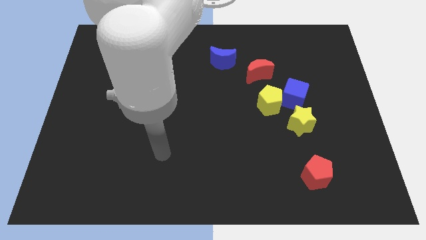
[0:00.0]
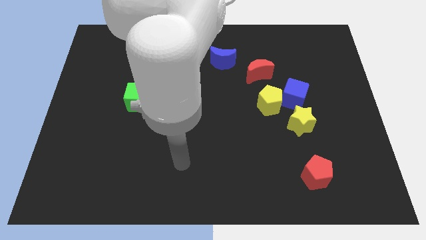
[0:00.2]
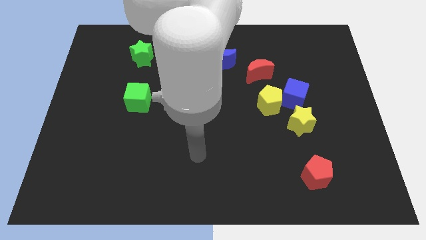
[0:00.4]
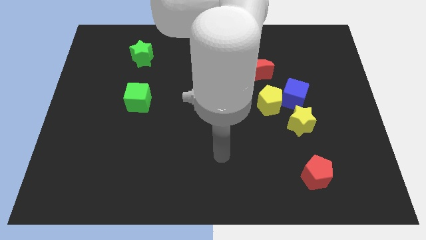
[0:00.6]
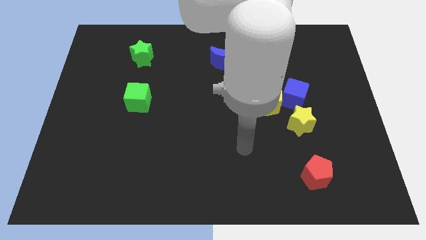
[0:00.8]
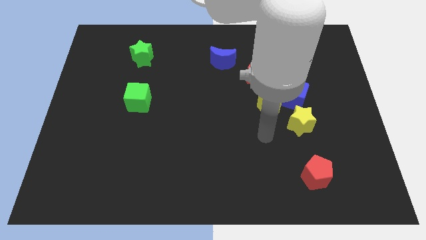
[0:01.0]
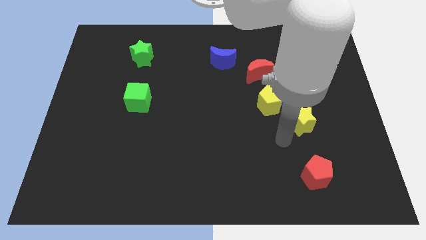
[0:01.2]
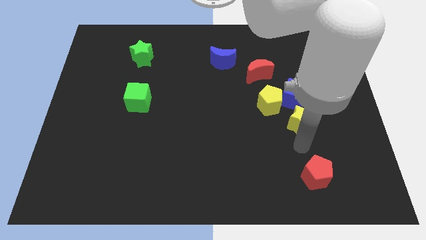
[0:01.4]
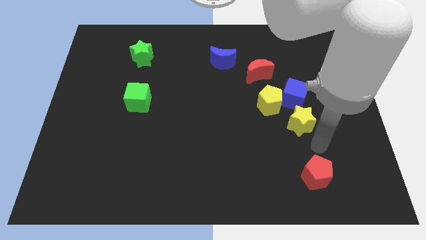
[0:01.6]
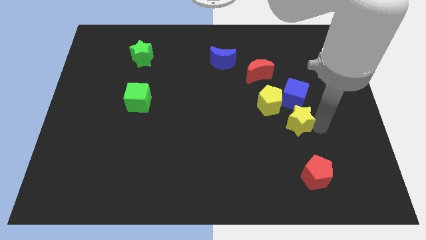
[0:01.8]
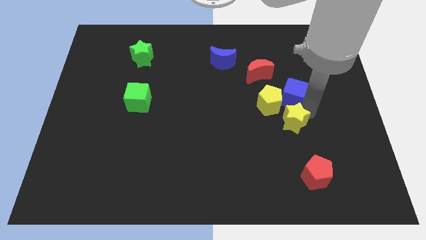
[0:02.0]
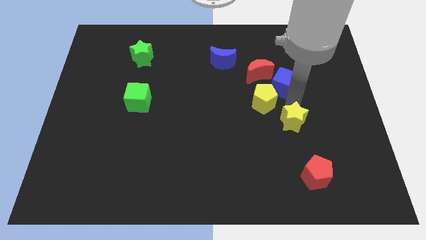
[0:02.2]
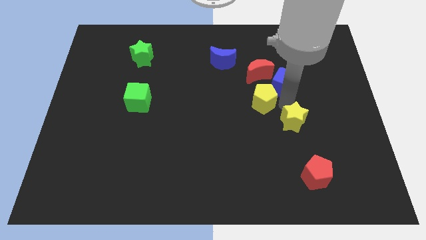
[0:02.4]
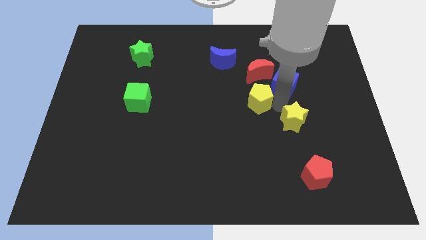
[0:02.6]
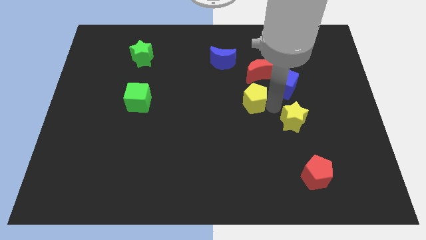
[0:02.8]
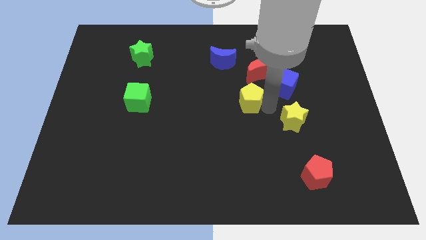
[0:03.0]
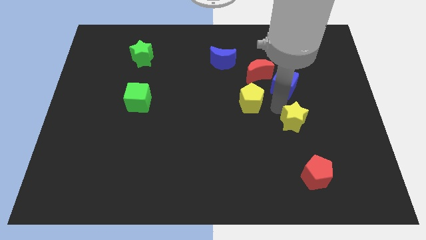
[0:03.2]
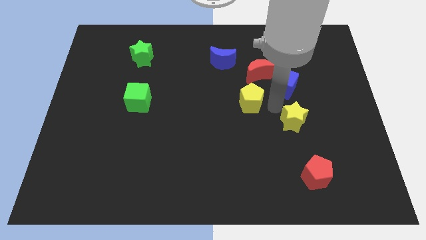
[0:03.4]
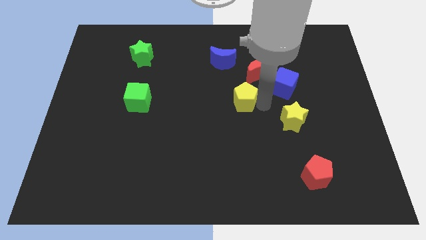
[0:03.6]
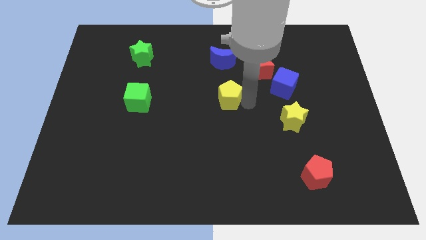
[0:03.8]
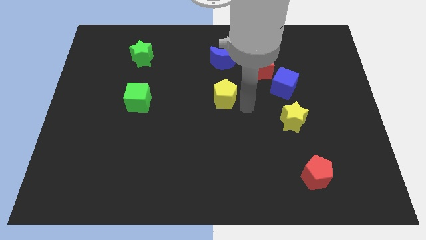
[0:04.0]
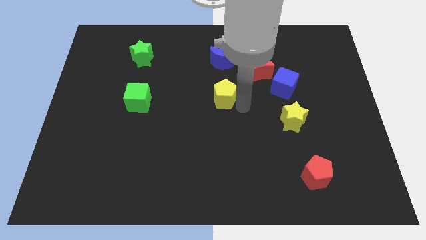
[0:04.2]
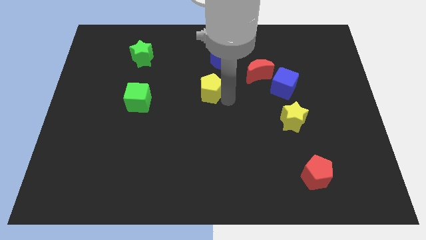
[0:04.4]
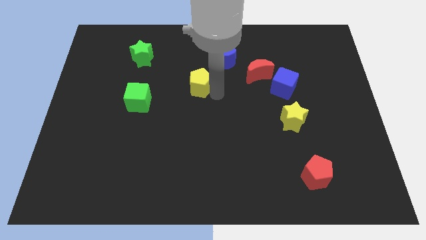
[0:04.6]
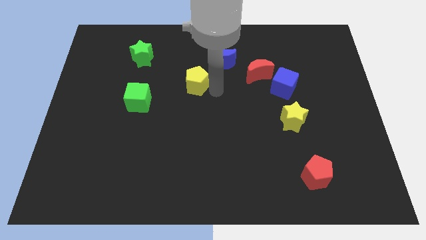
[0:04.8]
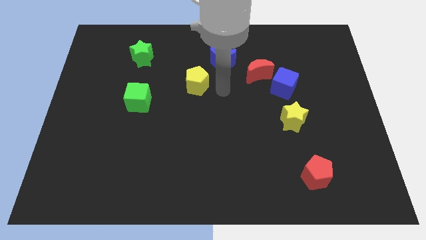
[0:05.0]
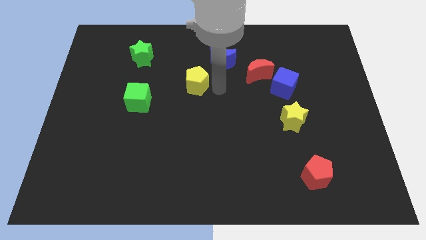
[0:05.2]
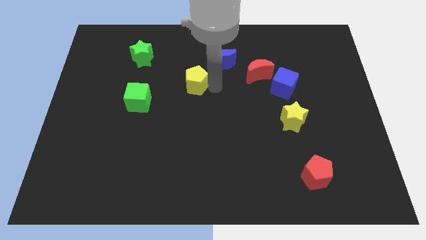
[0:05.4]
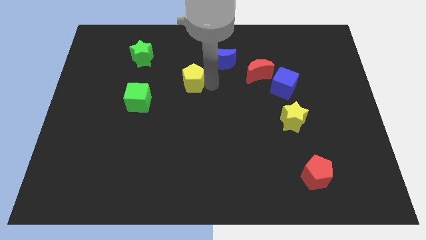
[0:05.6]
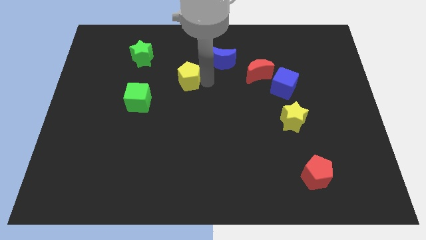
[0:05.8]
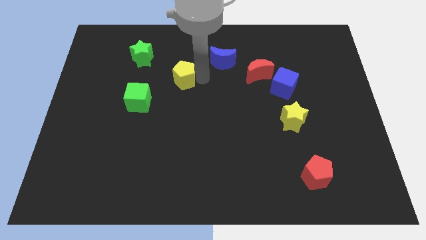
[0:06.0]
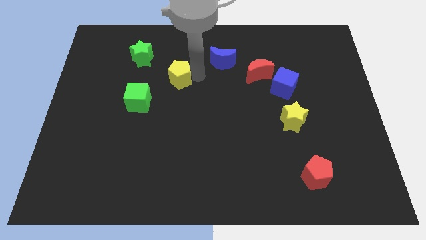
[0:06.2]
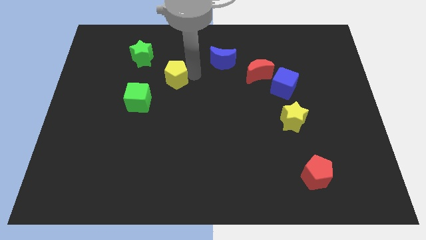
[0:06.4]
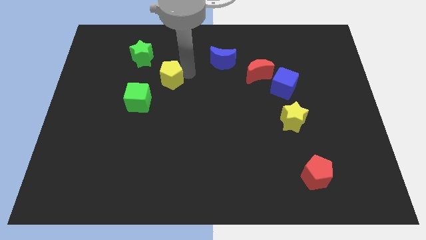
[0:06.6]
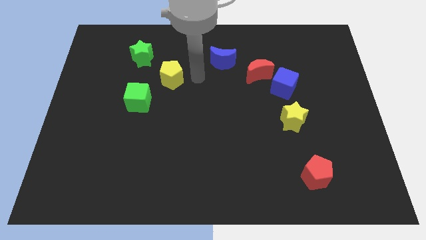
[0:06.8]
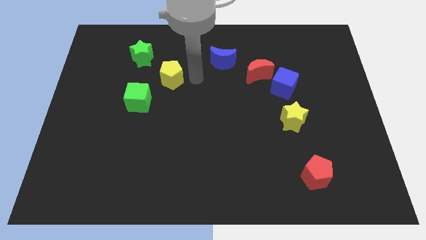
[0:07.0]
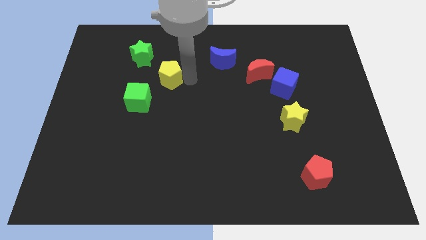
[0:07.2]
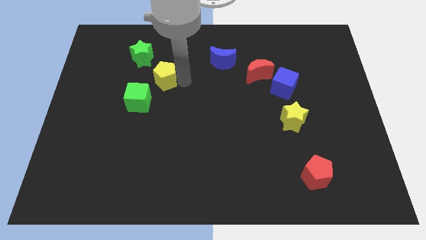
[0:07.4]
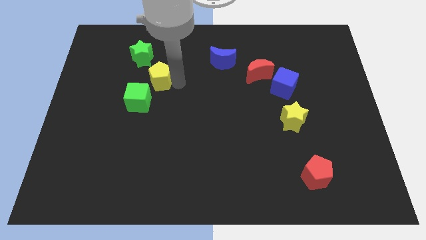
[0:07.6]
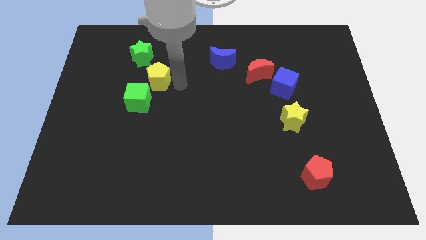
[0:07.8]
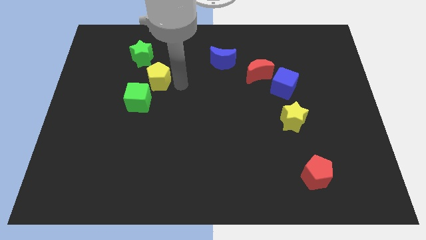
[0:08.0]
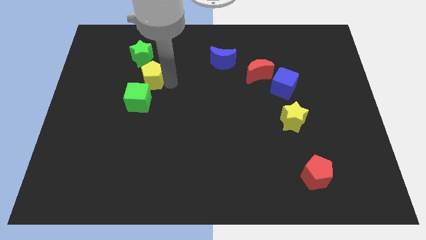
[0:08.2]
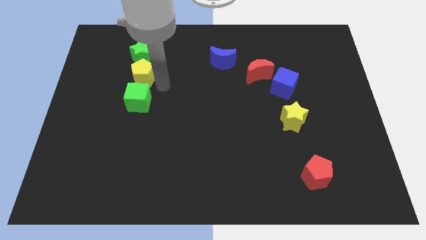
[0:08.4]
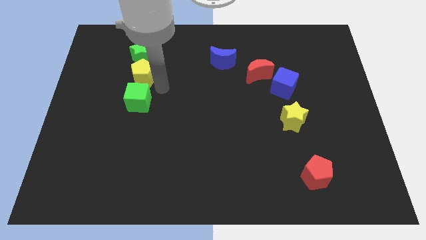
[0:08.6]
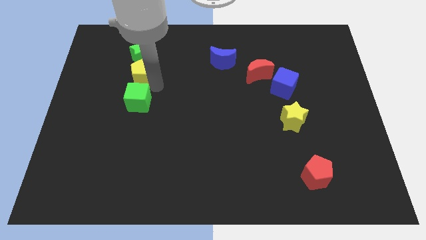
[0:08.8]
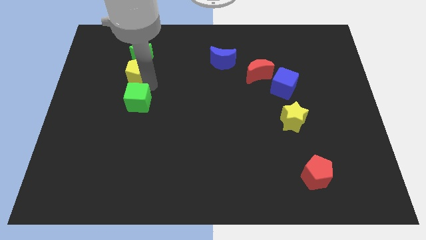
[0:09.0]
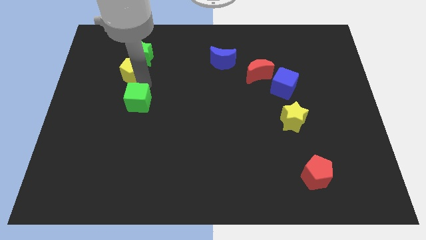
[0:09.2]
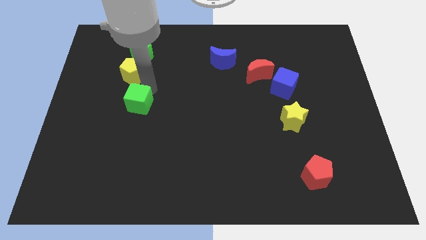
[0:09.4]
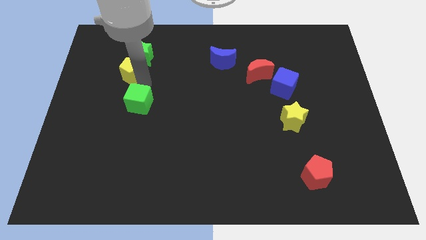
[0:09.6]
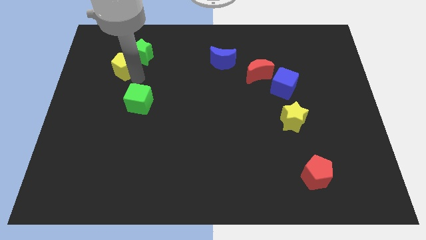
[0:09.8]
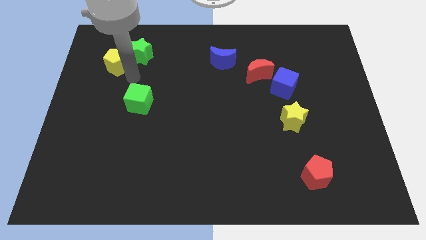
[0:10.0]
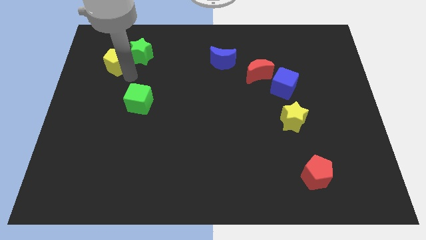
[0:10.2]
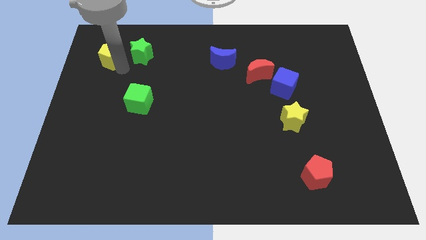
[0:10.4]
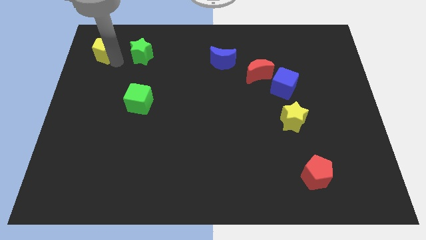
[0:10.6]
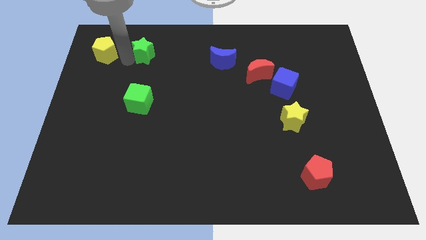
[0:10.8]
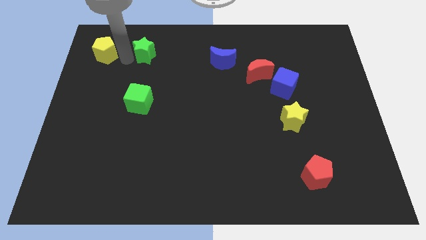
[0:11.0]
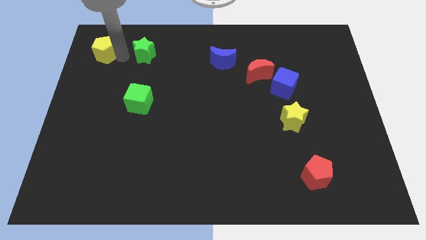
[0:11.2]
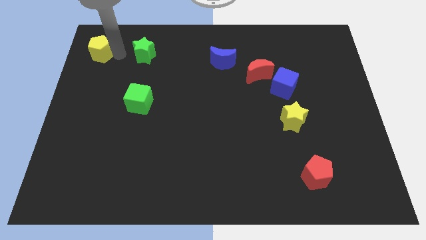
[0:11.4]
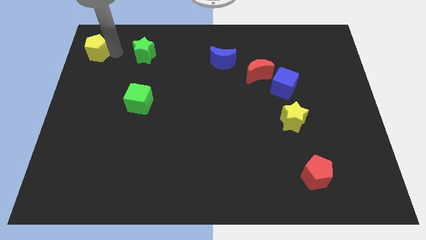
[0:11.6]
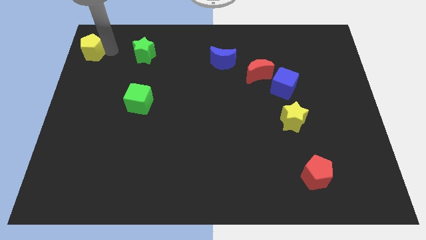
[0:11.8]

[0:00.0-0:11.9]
move the yellow pentagon to the upper left corner
